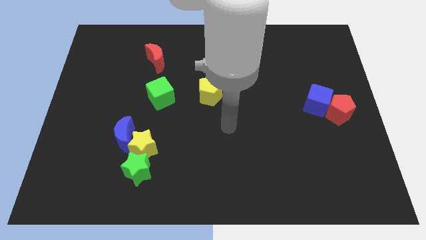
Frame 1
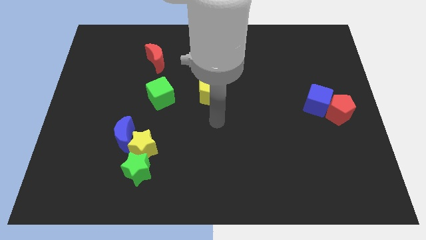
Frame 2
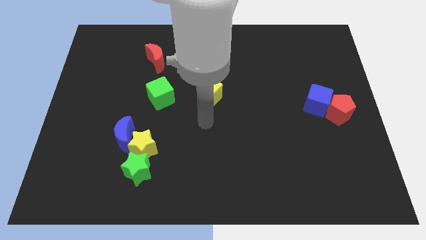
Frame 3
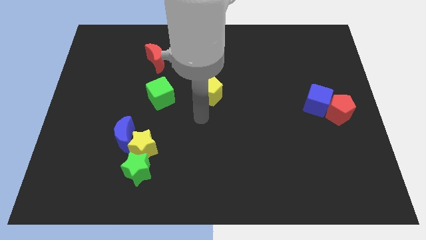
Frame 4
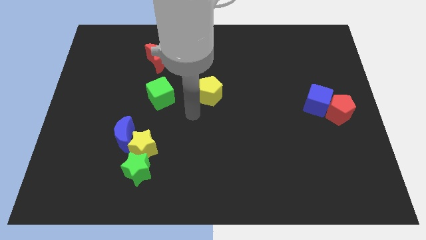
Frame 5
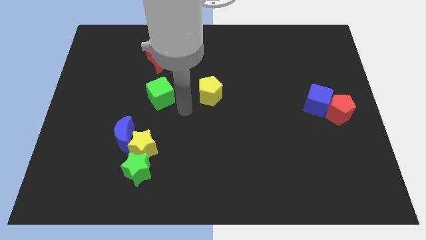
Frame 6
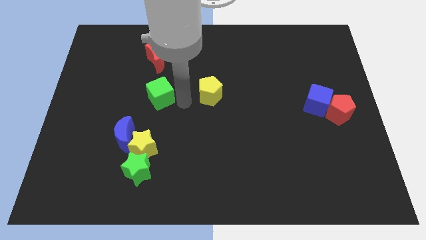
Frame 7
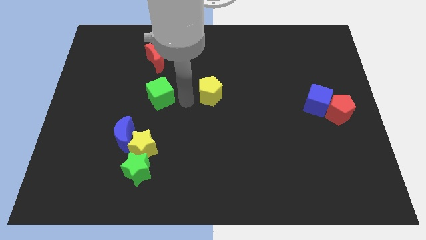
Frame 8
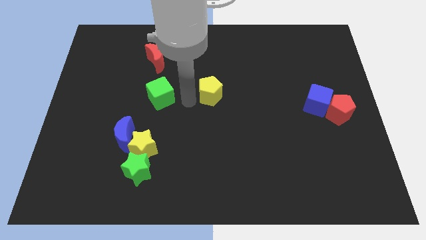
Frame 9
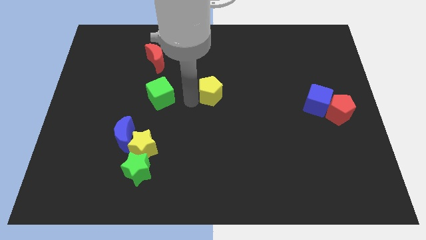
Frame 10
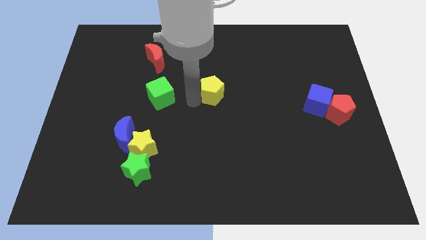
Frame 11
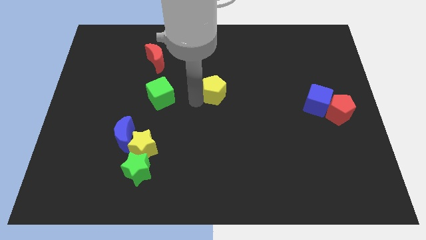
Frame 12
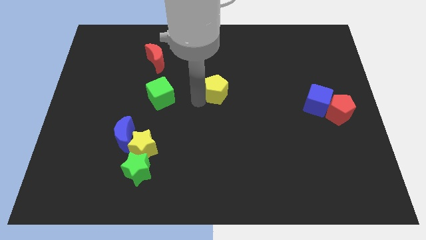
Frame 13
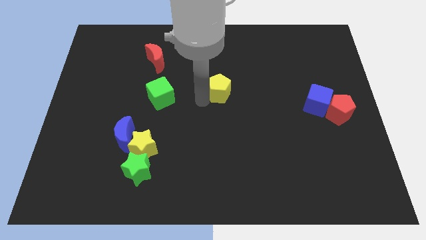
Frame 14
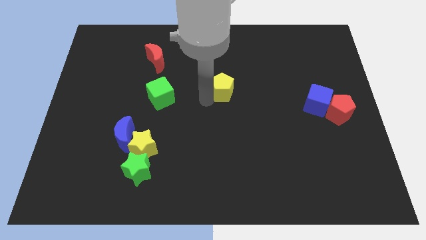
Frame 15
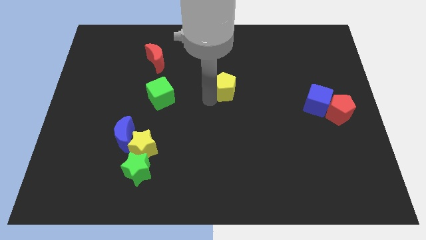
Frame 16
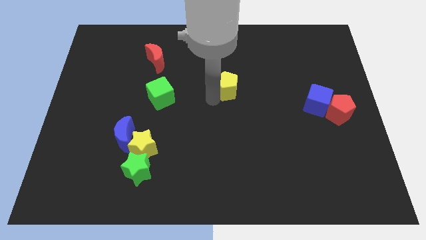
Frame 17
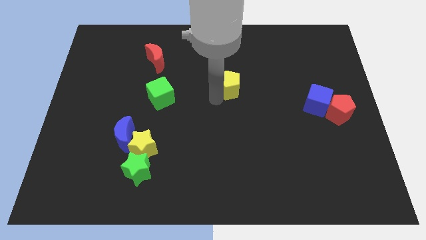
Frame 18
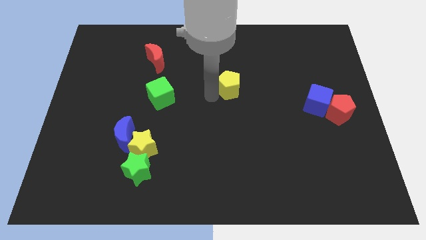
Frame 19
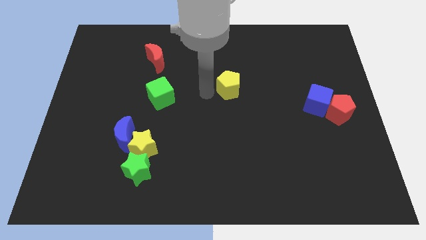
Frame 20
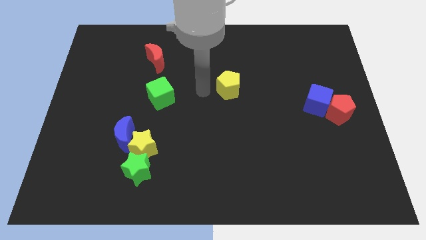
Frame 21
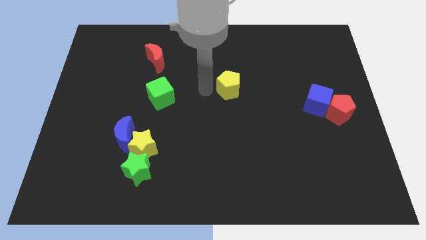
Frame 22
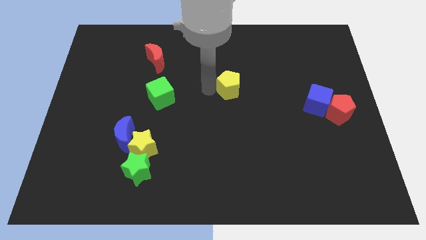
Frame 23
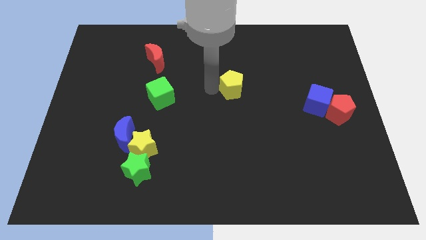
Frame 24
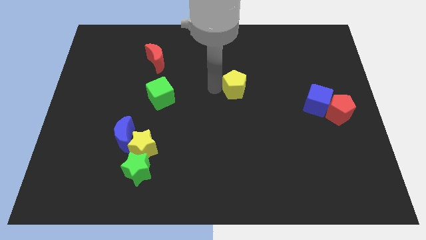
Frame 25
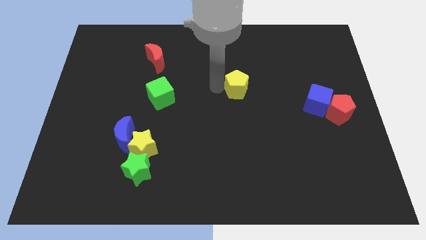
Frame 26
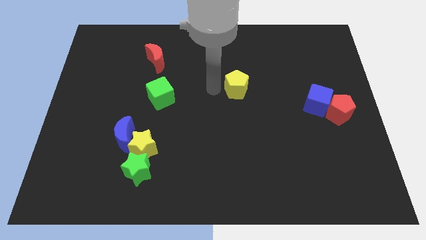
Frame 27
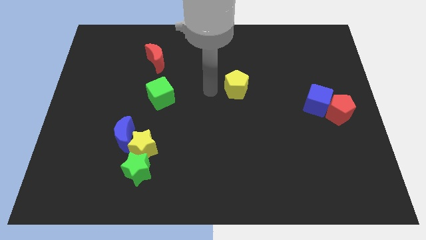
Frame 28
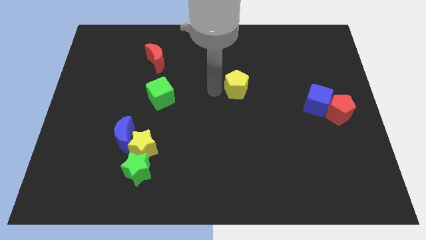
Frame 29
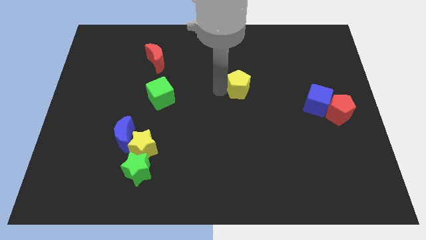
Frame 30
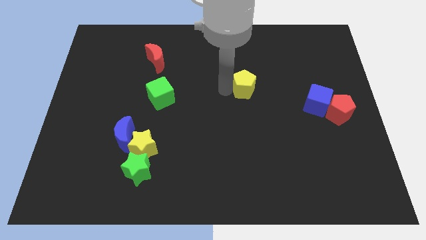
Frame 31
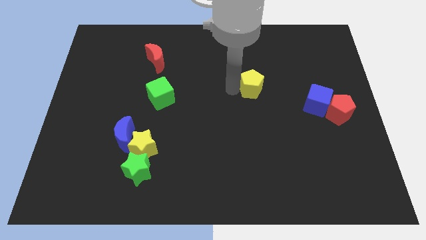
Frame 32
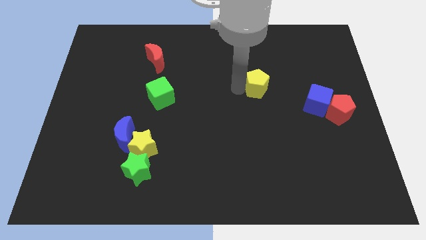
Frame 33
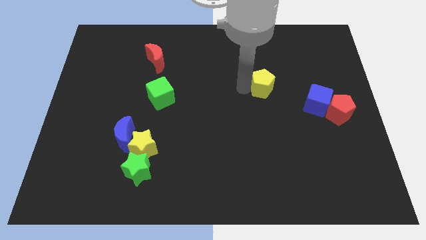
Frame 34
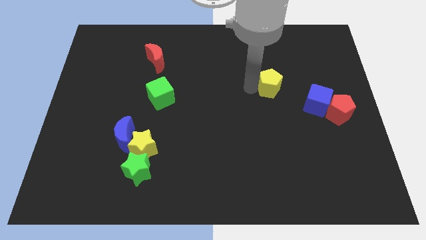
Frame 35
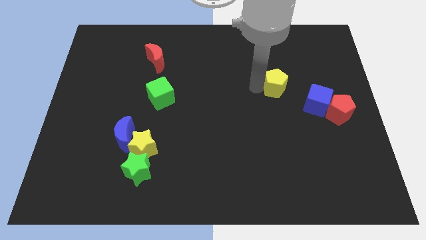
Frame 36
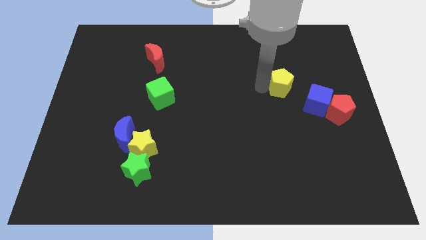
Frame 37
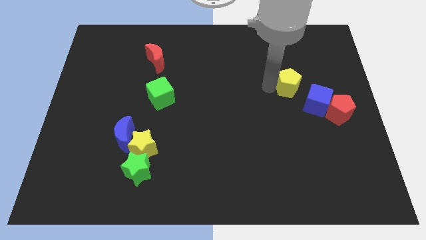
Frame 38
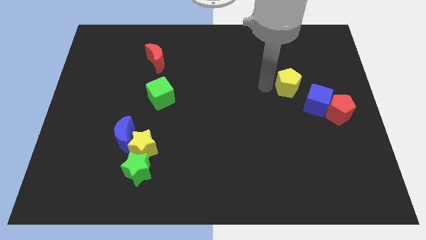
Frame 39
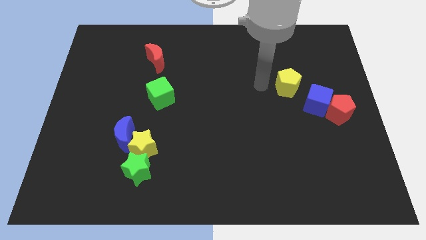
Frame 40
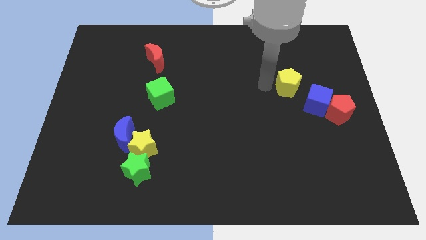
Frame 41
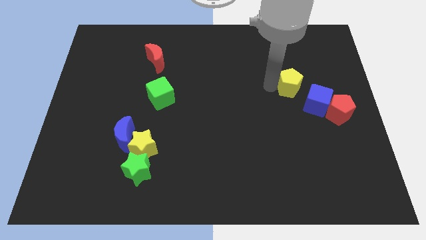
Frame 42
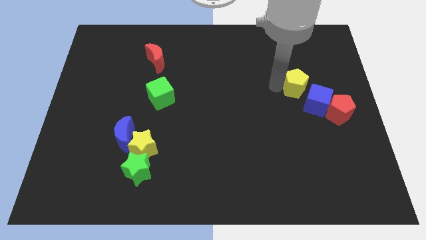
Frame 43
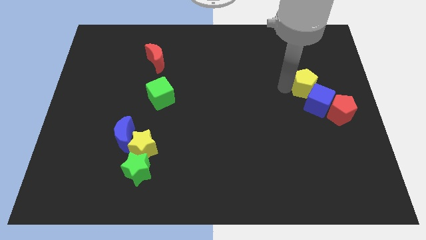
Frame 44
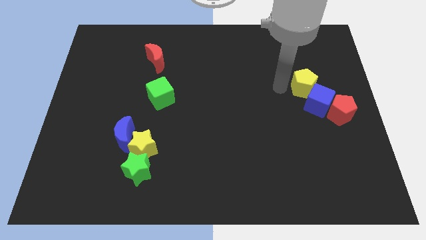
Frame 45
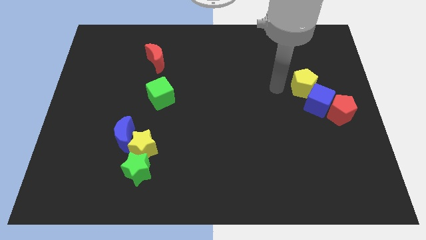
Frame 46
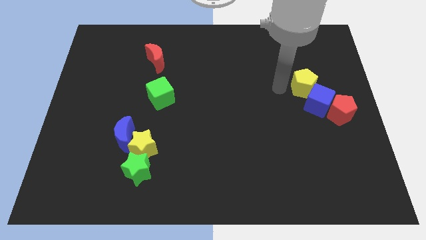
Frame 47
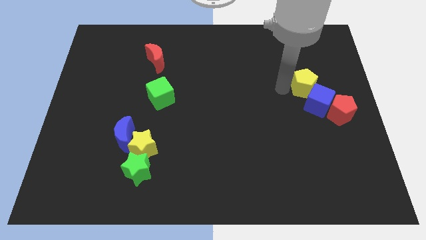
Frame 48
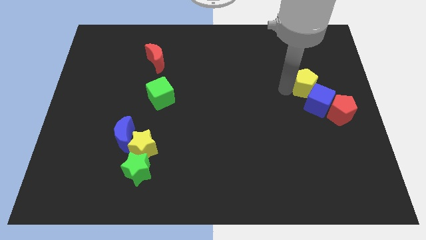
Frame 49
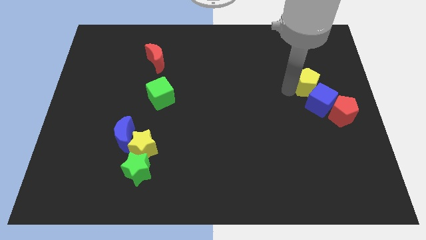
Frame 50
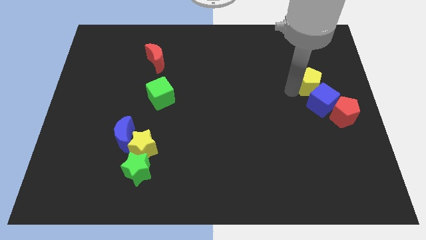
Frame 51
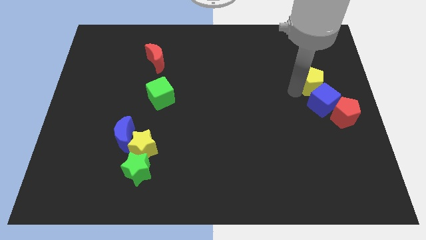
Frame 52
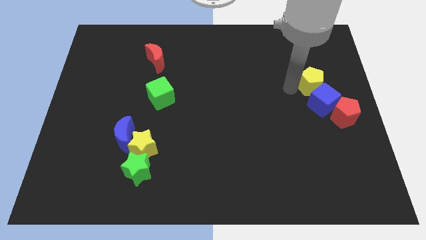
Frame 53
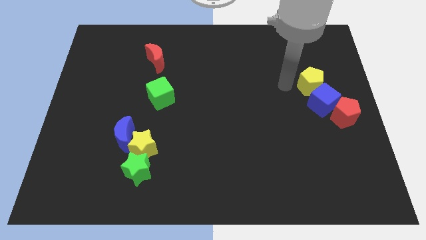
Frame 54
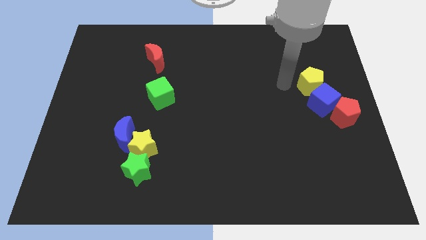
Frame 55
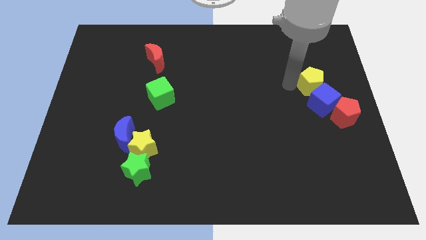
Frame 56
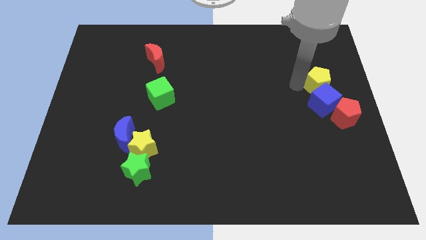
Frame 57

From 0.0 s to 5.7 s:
push the yellow pentagon to the right side
